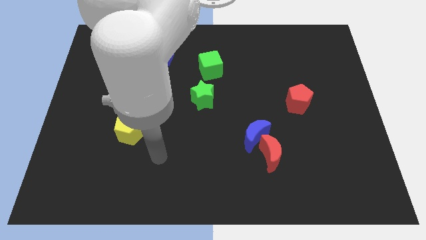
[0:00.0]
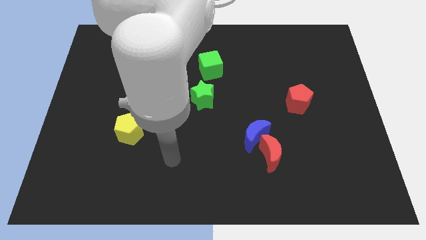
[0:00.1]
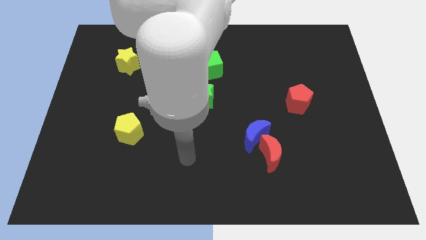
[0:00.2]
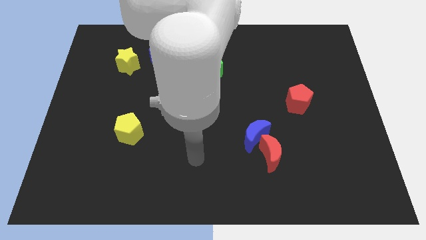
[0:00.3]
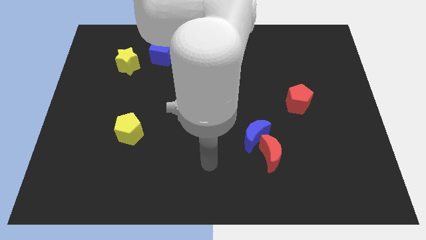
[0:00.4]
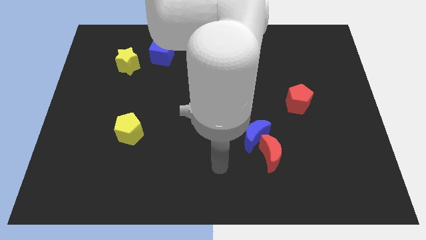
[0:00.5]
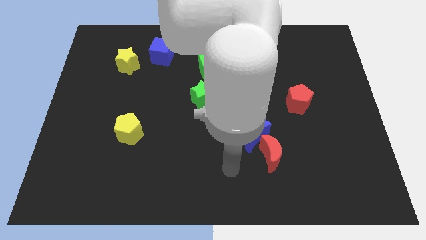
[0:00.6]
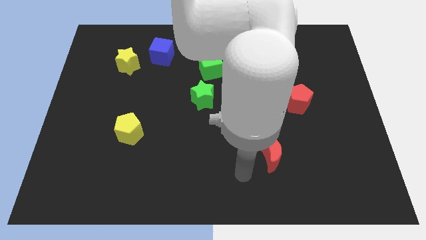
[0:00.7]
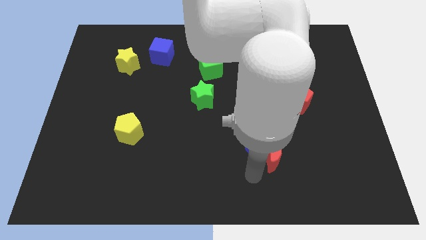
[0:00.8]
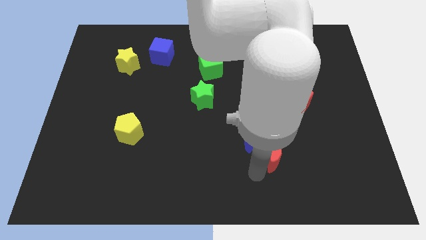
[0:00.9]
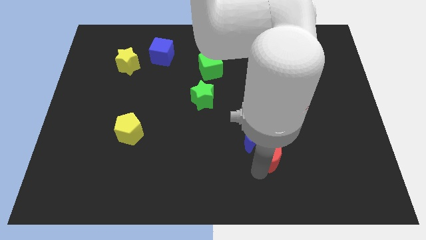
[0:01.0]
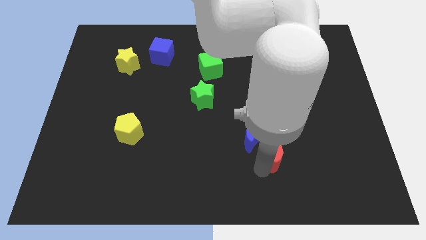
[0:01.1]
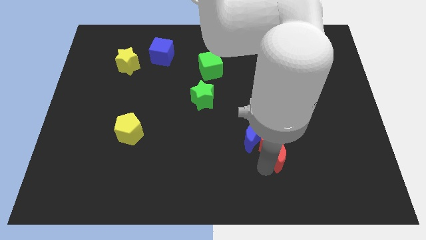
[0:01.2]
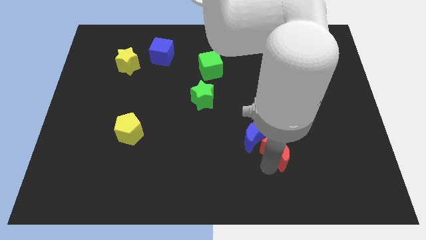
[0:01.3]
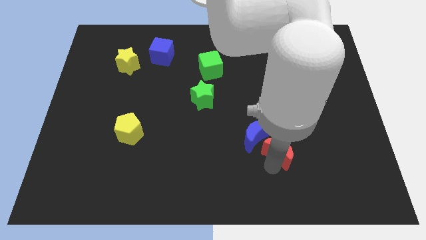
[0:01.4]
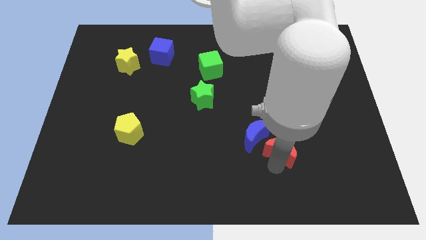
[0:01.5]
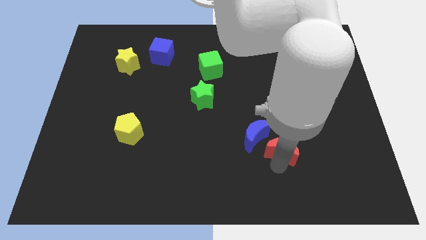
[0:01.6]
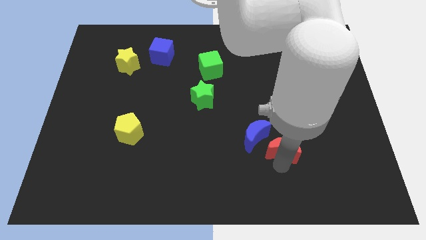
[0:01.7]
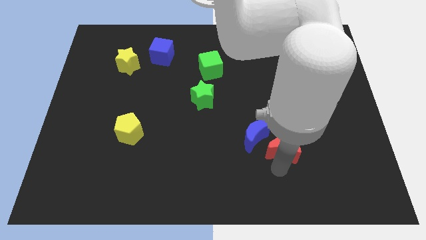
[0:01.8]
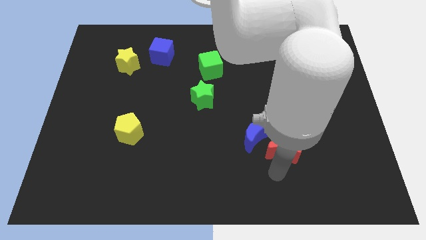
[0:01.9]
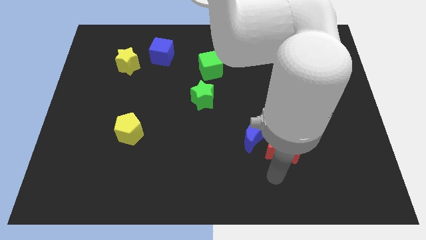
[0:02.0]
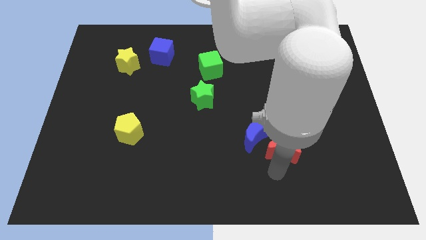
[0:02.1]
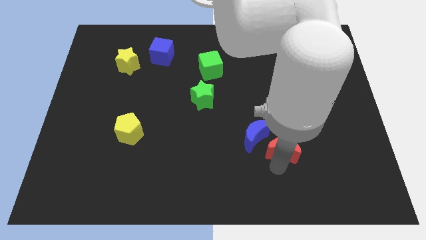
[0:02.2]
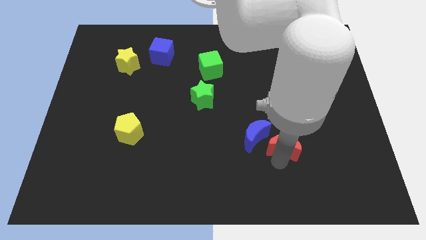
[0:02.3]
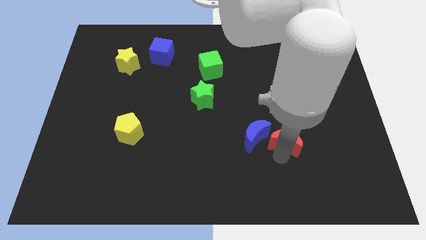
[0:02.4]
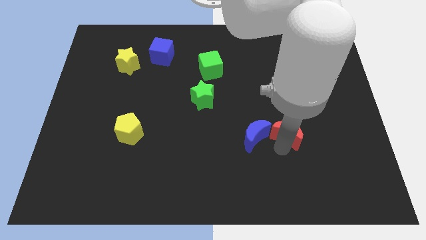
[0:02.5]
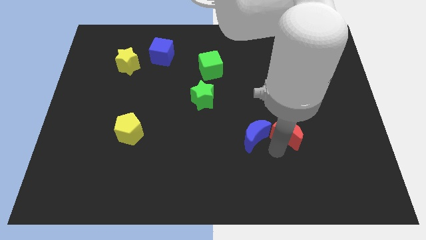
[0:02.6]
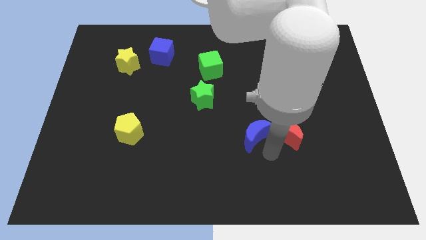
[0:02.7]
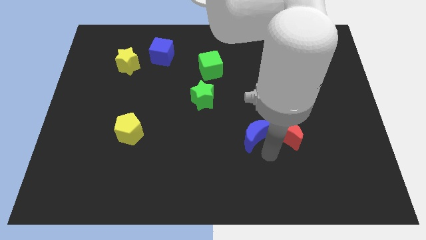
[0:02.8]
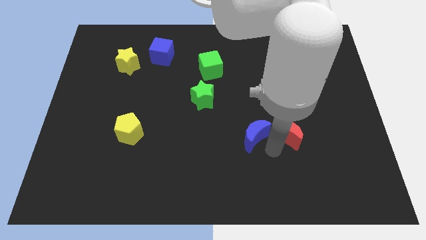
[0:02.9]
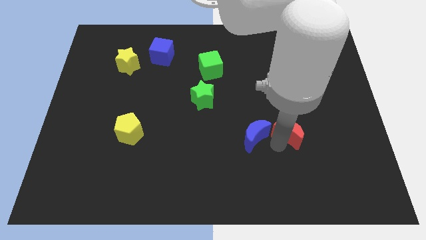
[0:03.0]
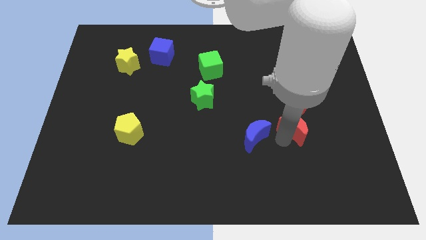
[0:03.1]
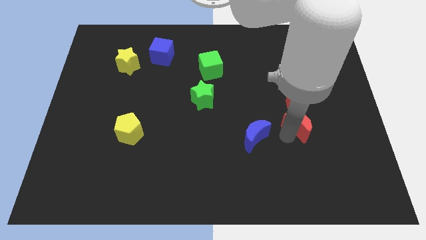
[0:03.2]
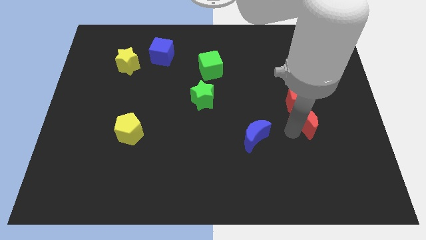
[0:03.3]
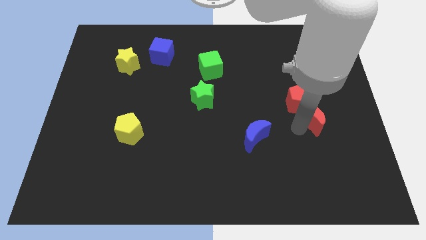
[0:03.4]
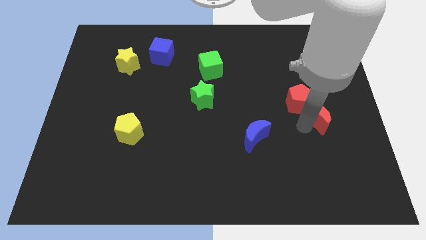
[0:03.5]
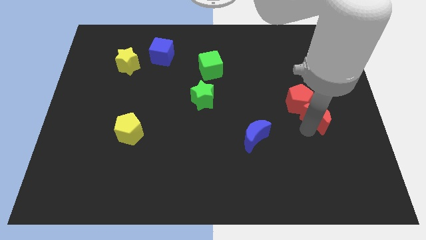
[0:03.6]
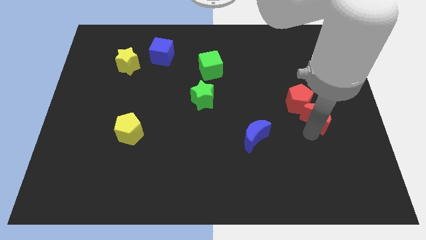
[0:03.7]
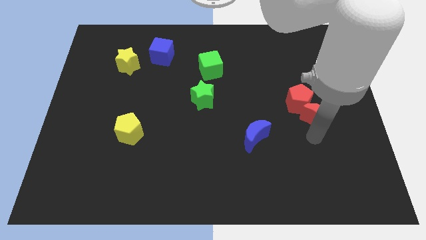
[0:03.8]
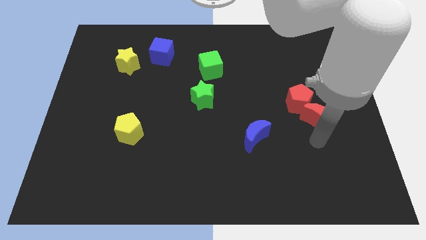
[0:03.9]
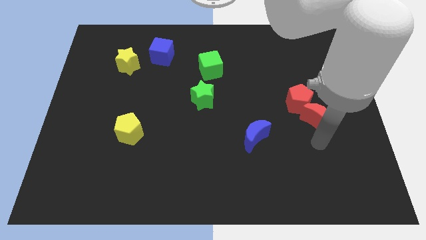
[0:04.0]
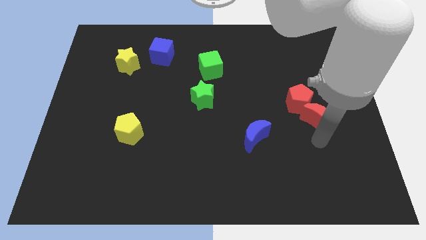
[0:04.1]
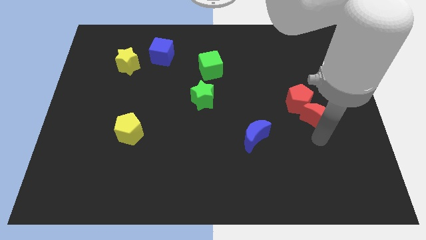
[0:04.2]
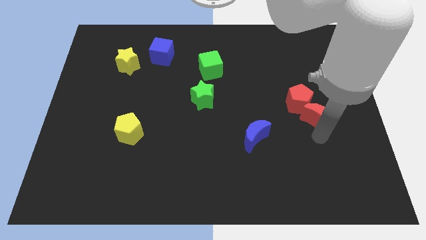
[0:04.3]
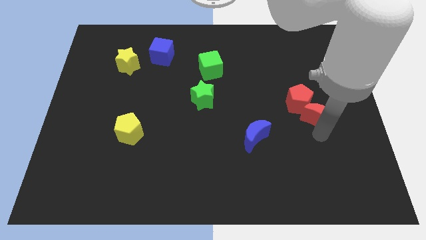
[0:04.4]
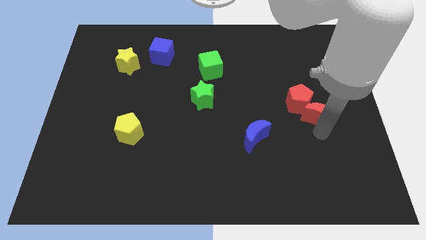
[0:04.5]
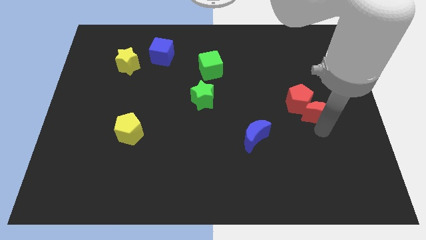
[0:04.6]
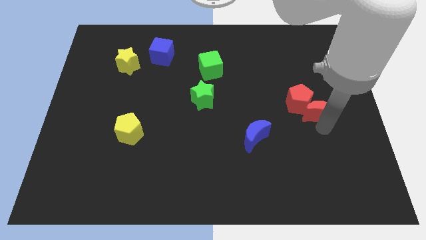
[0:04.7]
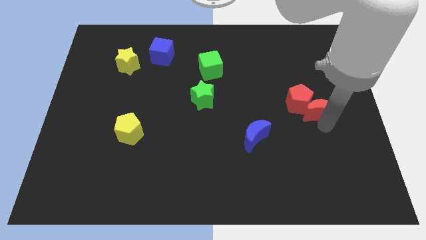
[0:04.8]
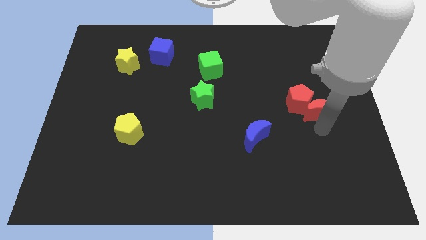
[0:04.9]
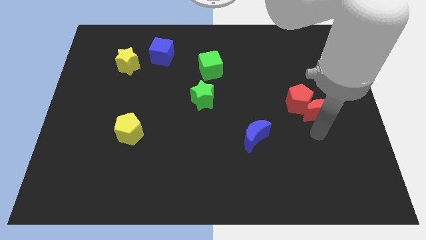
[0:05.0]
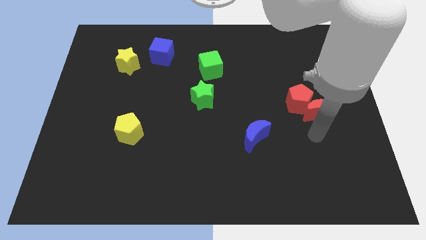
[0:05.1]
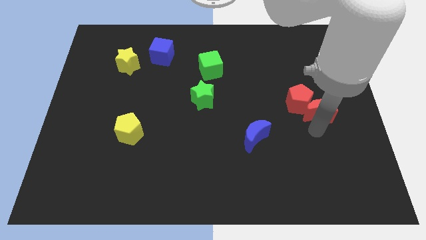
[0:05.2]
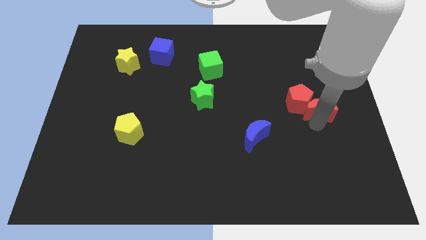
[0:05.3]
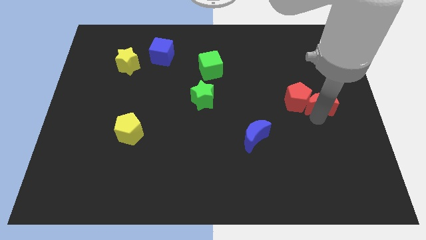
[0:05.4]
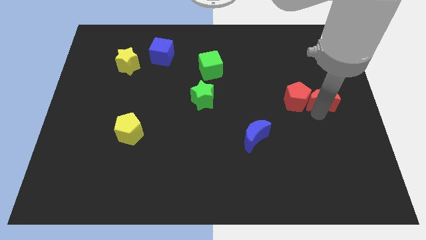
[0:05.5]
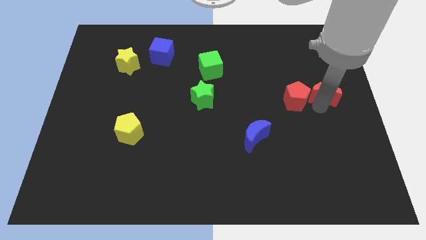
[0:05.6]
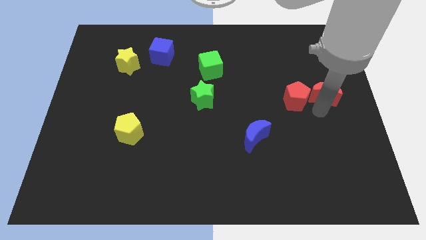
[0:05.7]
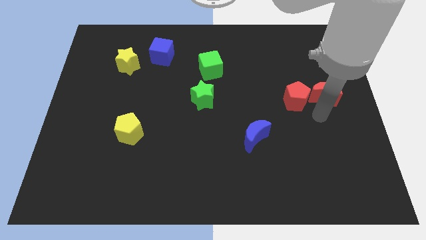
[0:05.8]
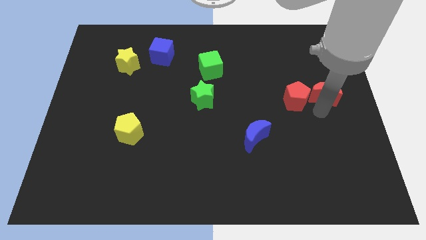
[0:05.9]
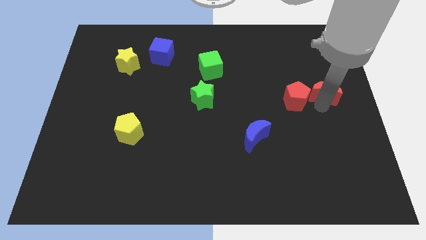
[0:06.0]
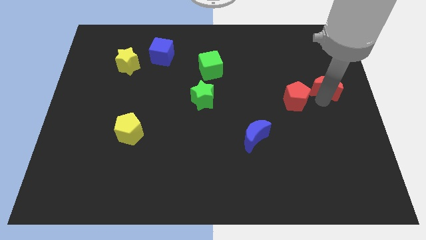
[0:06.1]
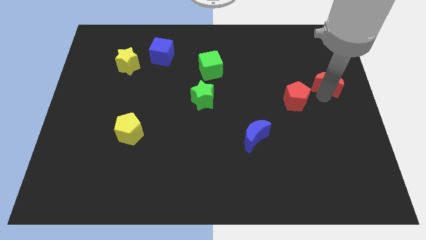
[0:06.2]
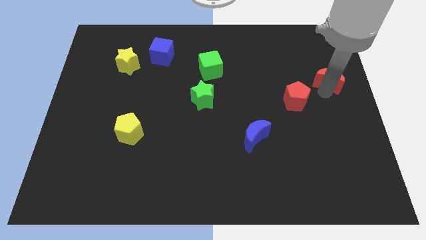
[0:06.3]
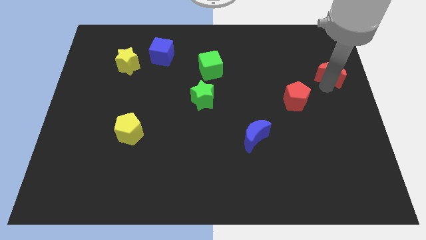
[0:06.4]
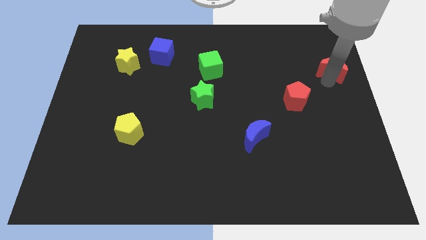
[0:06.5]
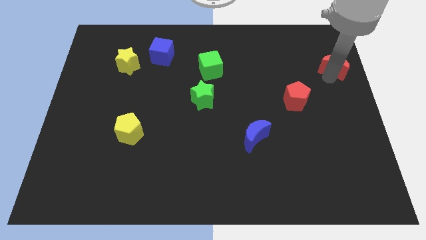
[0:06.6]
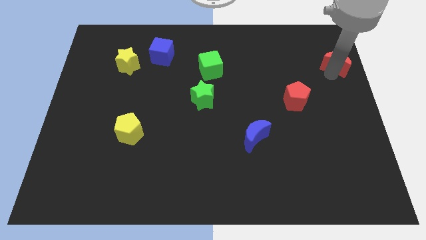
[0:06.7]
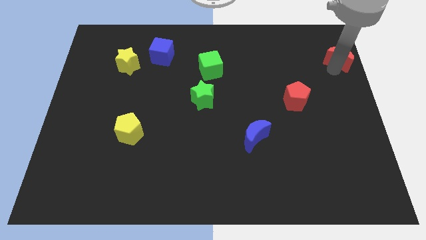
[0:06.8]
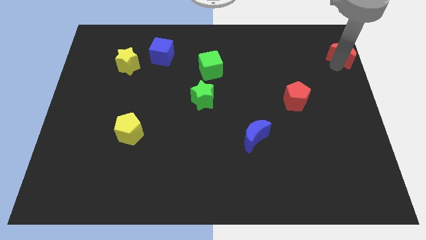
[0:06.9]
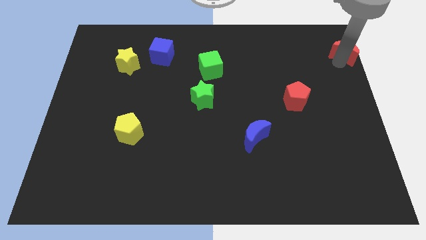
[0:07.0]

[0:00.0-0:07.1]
push the red moon to the top right of the board
